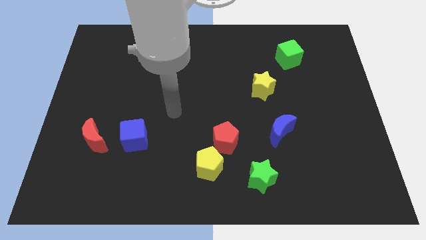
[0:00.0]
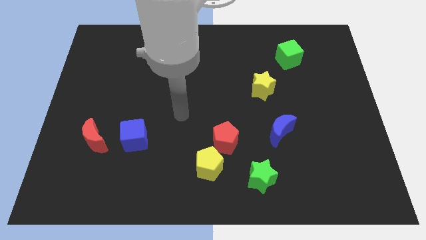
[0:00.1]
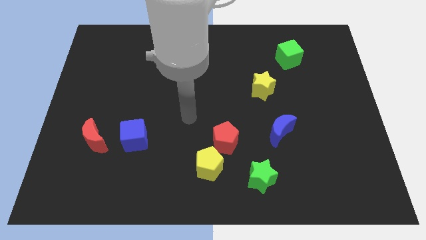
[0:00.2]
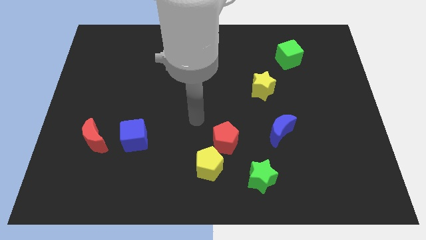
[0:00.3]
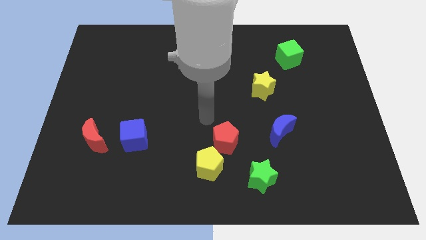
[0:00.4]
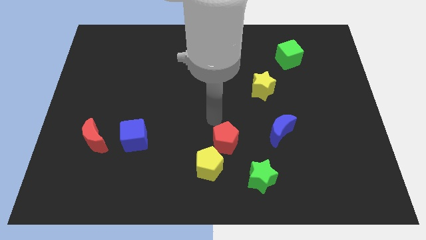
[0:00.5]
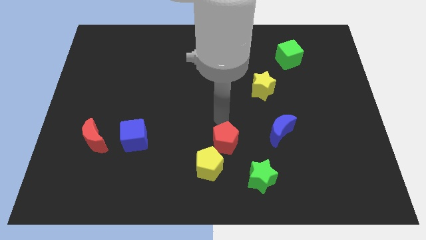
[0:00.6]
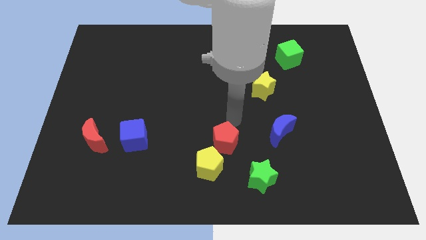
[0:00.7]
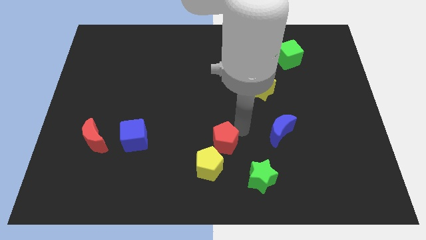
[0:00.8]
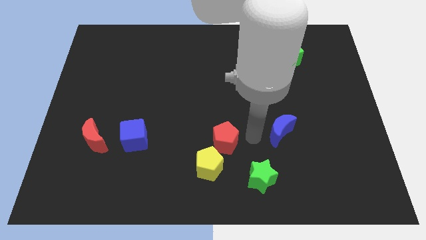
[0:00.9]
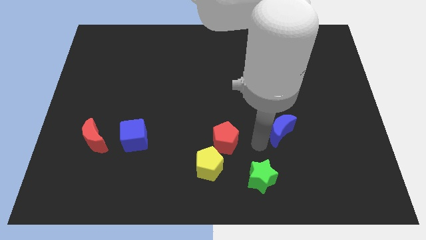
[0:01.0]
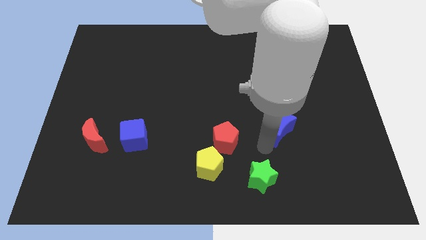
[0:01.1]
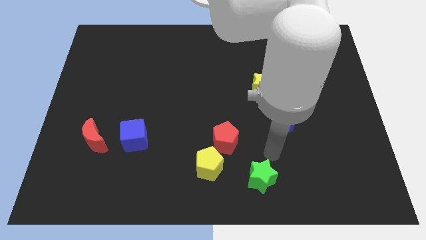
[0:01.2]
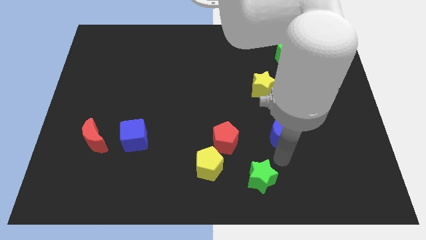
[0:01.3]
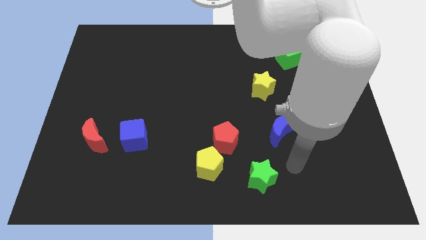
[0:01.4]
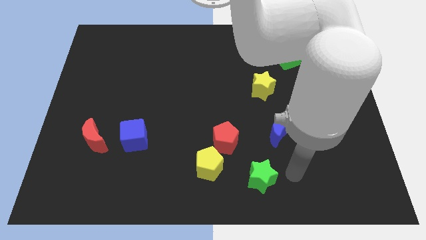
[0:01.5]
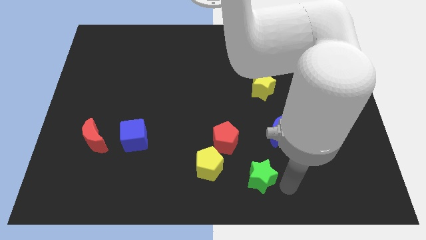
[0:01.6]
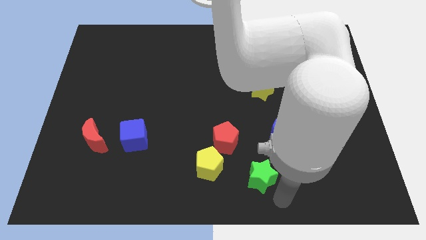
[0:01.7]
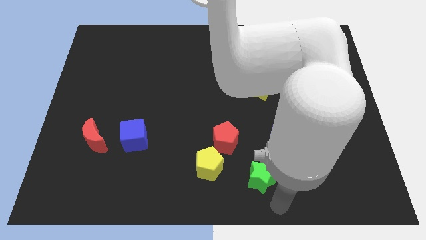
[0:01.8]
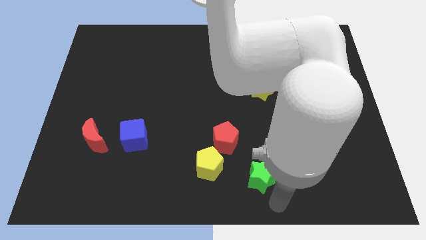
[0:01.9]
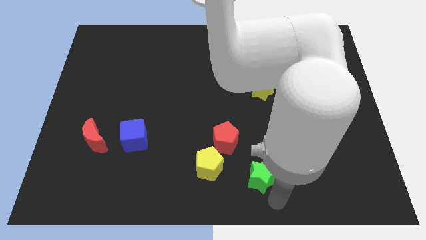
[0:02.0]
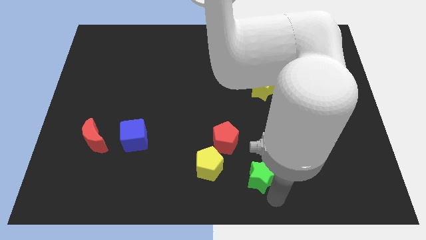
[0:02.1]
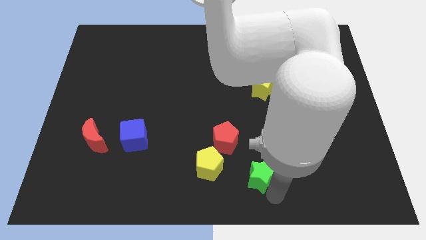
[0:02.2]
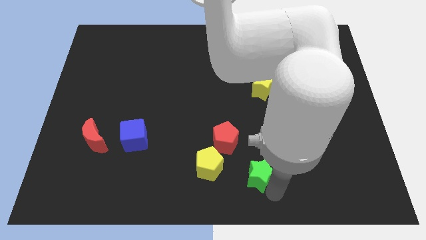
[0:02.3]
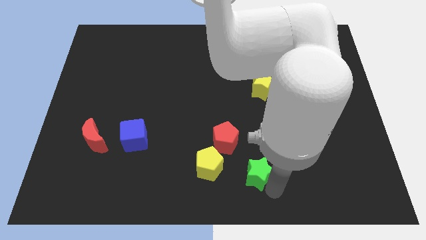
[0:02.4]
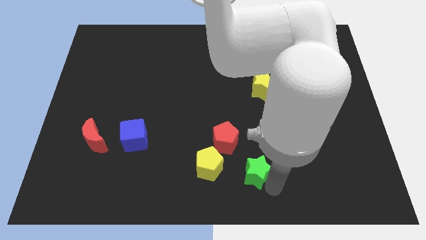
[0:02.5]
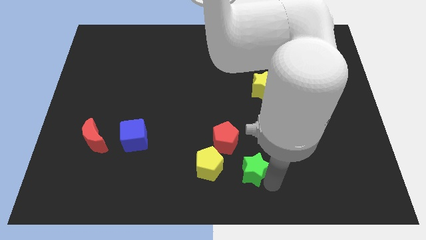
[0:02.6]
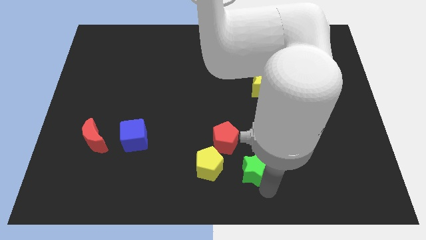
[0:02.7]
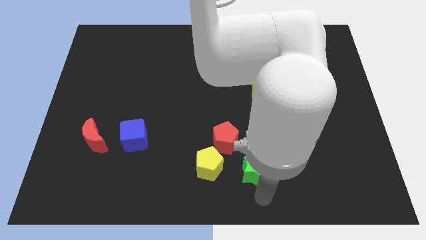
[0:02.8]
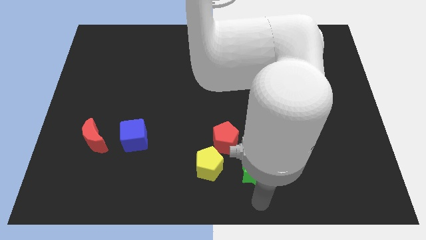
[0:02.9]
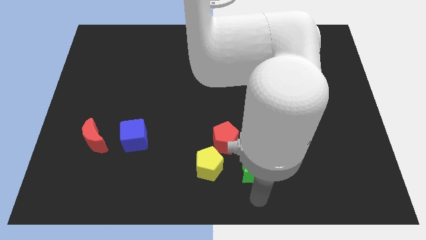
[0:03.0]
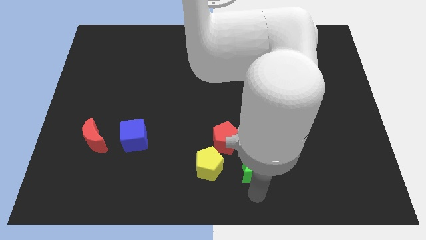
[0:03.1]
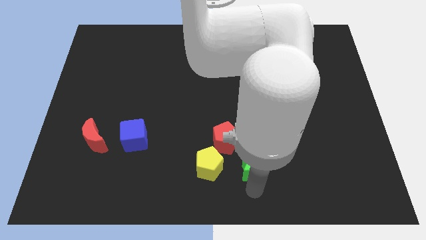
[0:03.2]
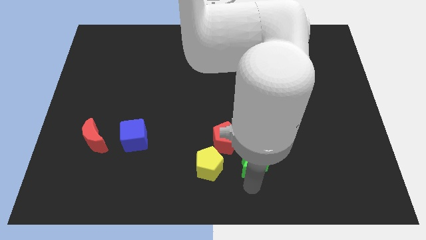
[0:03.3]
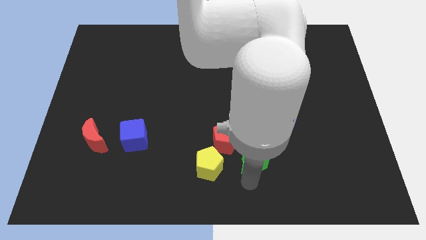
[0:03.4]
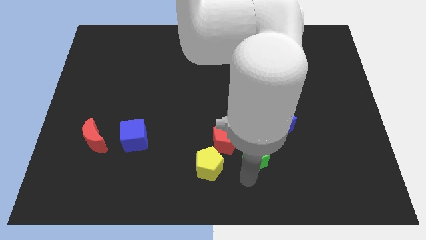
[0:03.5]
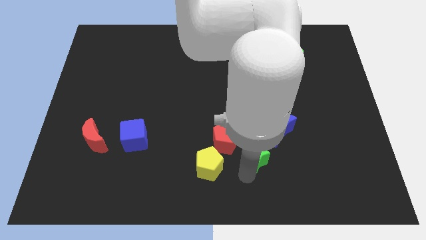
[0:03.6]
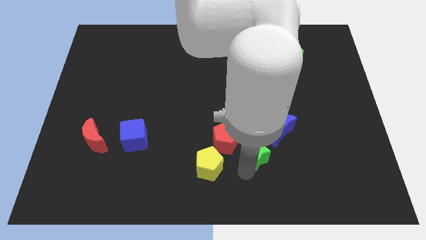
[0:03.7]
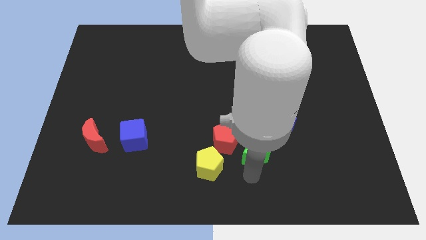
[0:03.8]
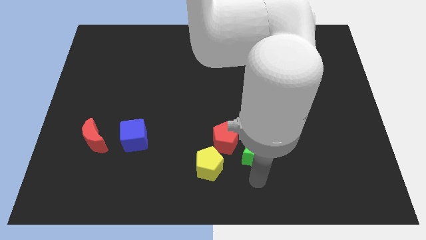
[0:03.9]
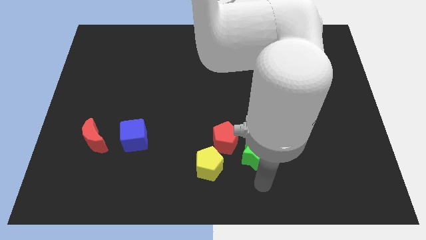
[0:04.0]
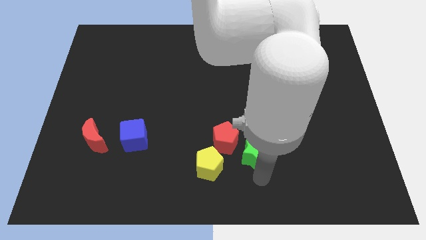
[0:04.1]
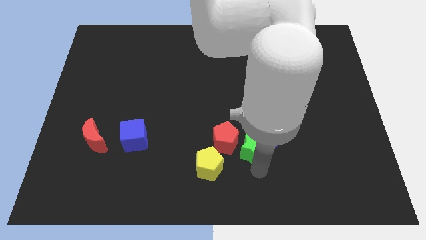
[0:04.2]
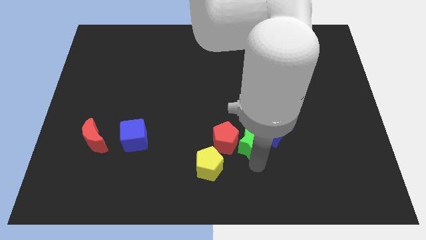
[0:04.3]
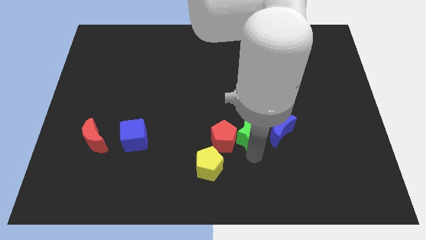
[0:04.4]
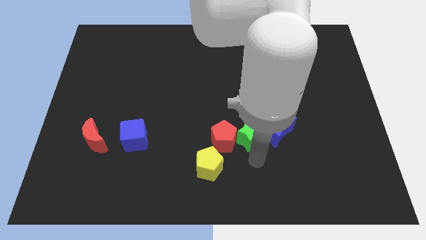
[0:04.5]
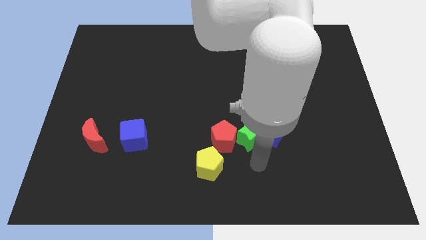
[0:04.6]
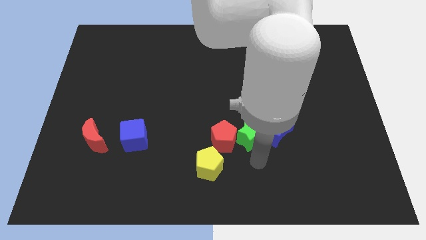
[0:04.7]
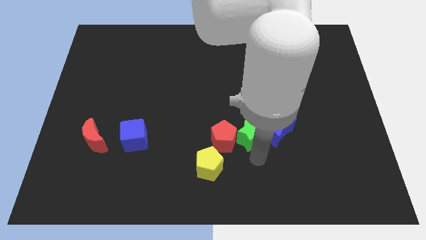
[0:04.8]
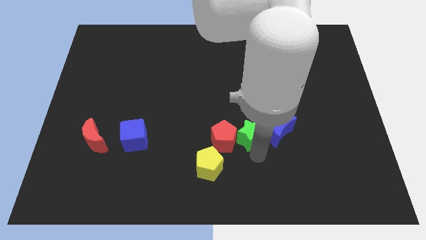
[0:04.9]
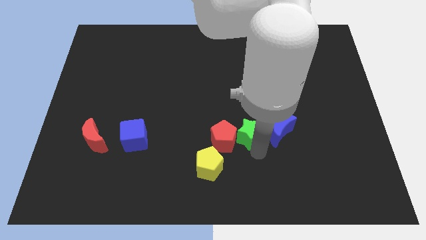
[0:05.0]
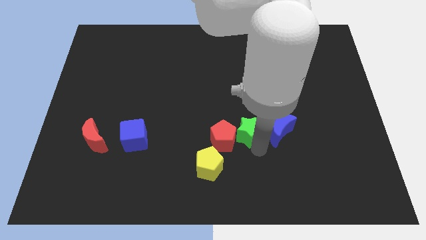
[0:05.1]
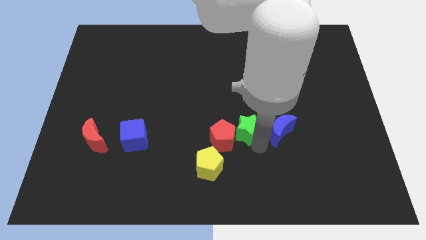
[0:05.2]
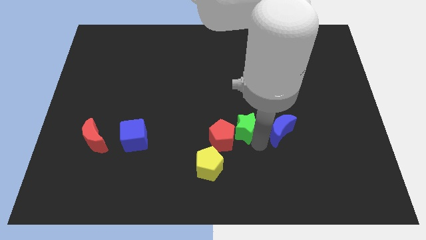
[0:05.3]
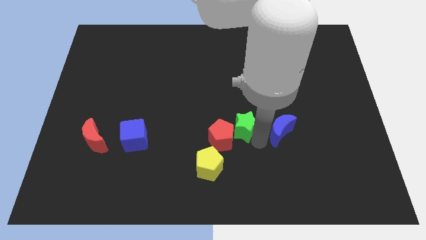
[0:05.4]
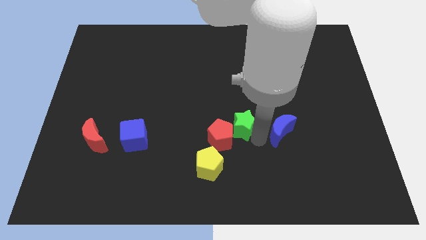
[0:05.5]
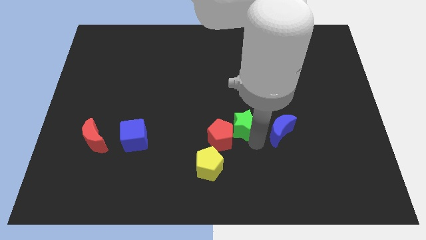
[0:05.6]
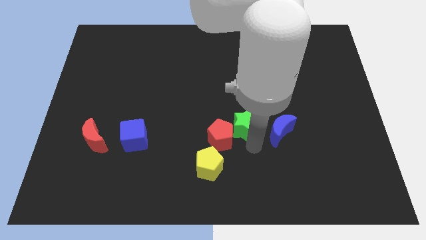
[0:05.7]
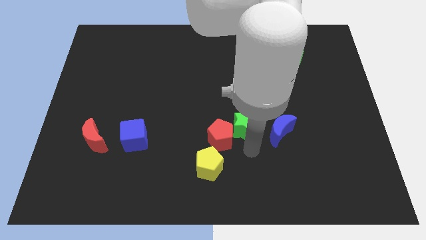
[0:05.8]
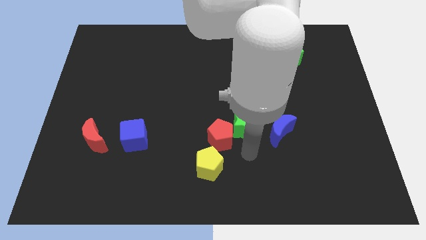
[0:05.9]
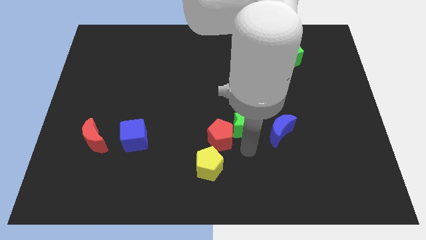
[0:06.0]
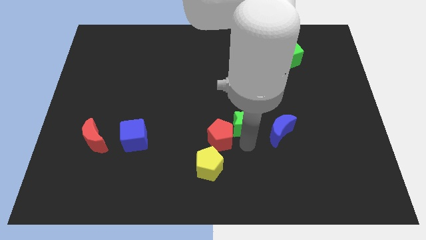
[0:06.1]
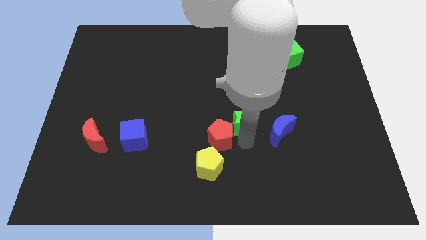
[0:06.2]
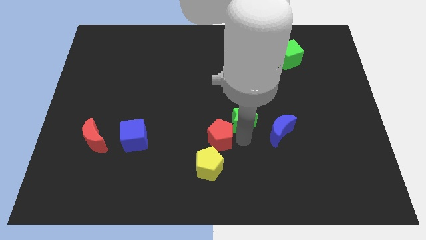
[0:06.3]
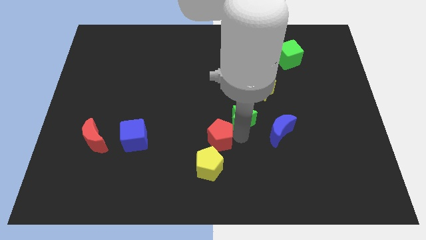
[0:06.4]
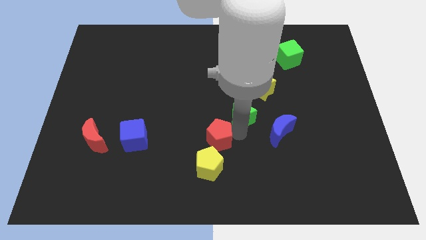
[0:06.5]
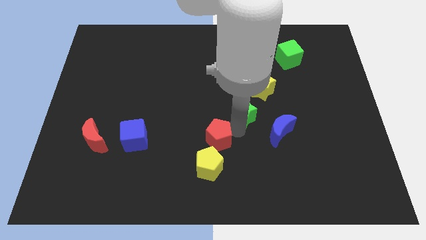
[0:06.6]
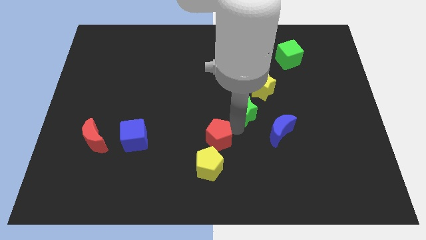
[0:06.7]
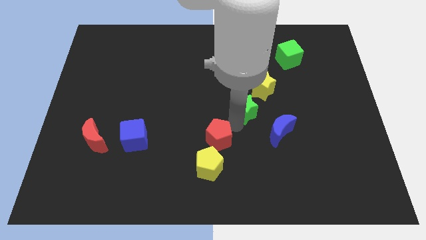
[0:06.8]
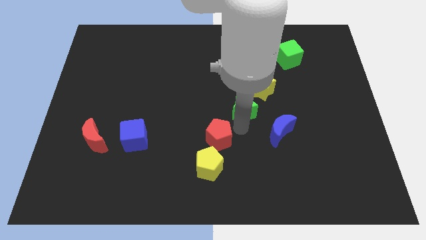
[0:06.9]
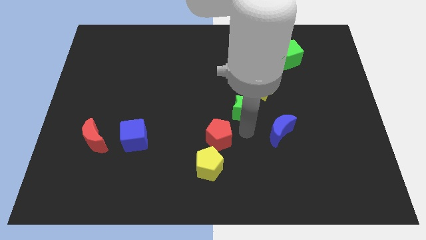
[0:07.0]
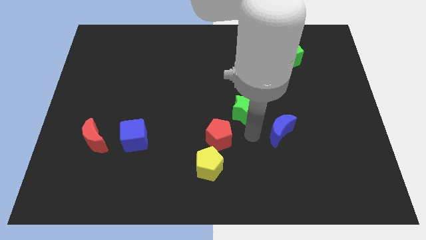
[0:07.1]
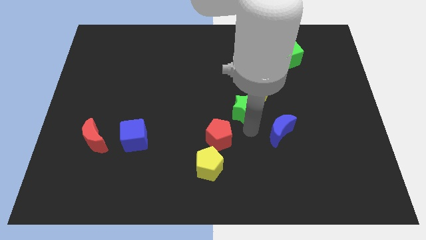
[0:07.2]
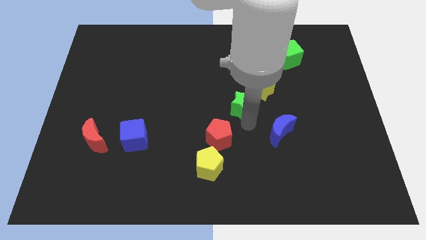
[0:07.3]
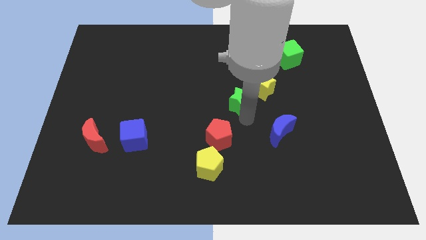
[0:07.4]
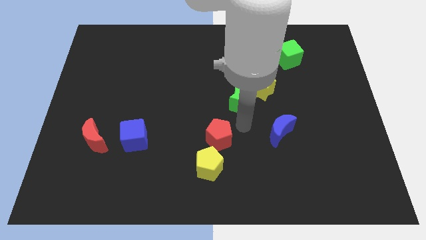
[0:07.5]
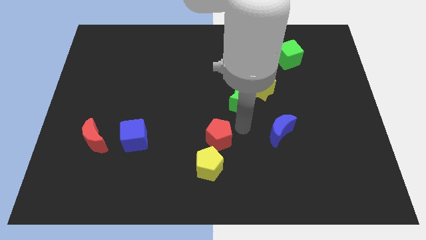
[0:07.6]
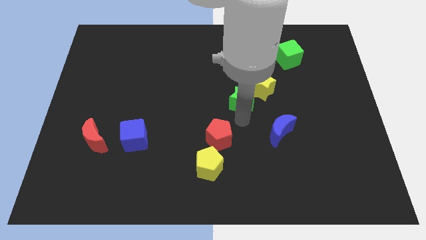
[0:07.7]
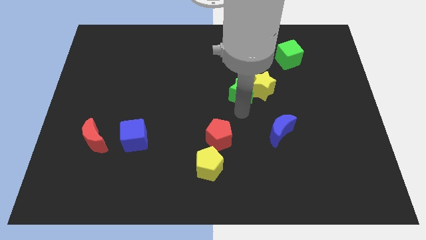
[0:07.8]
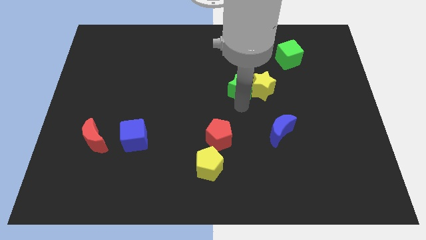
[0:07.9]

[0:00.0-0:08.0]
push the green star to the top left side of the yellow star
